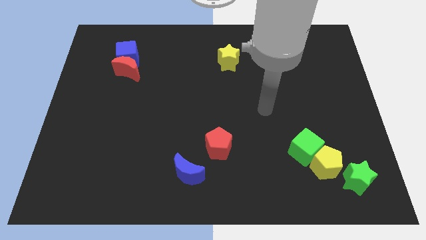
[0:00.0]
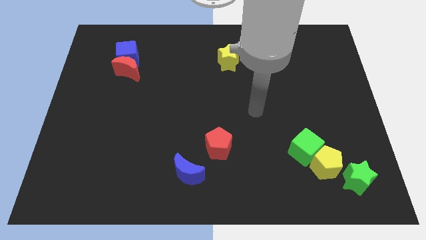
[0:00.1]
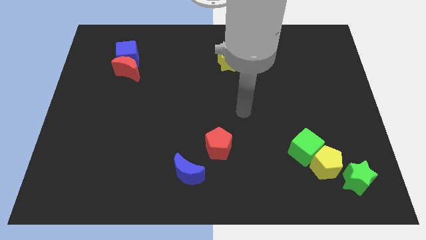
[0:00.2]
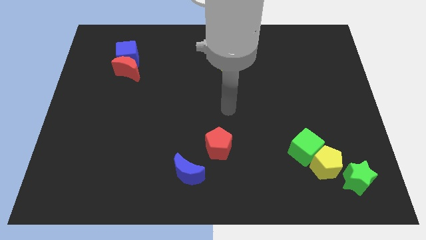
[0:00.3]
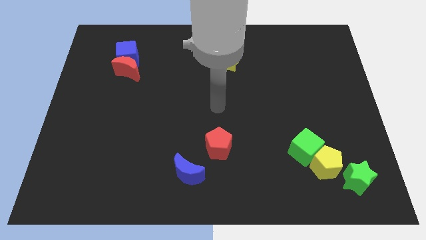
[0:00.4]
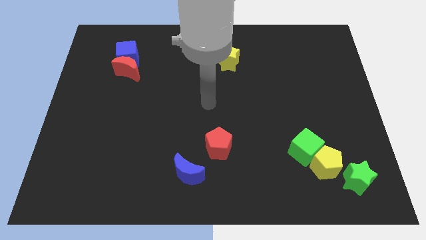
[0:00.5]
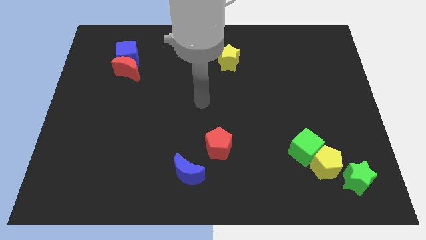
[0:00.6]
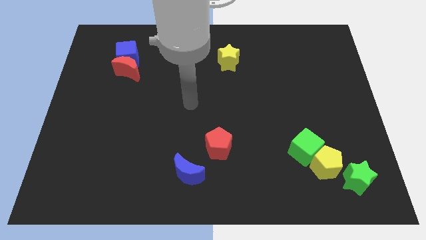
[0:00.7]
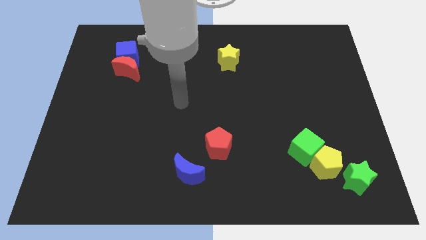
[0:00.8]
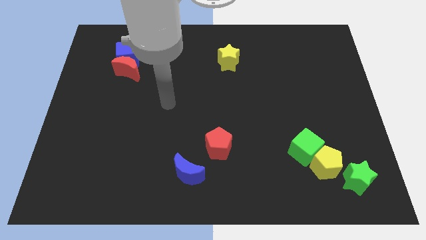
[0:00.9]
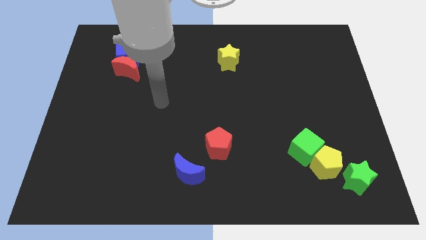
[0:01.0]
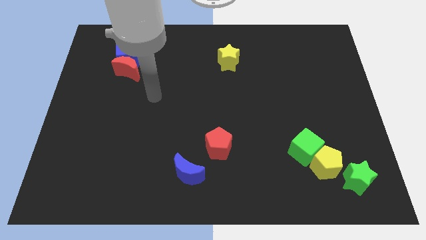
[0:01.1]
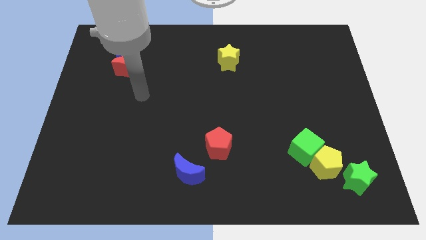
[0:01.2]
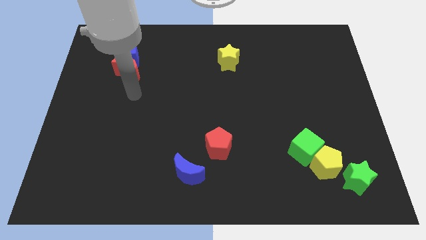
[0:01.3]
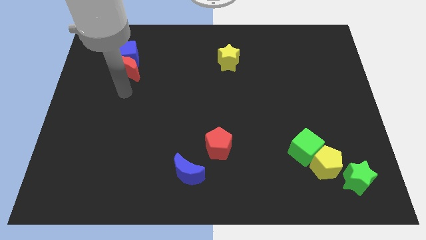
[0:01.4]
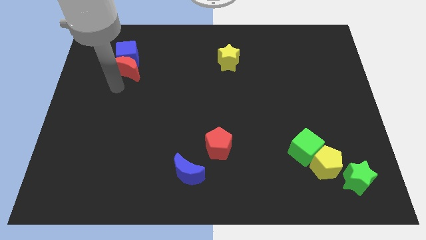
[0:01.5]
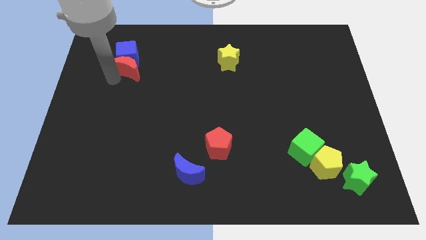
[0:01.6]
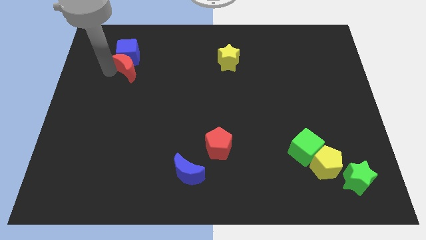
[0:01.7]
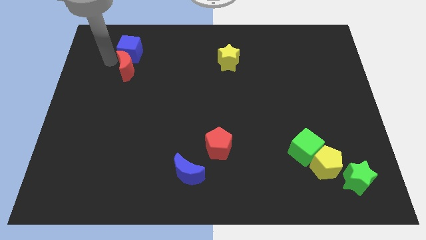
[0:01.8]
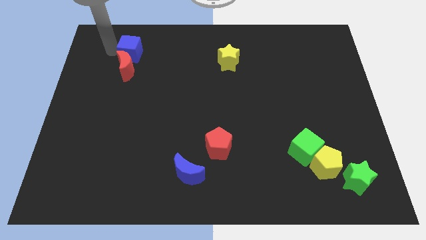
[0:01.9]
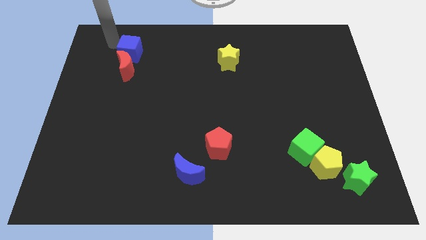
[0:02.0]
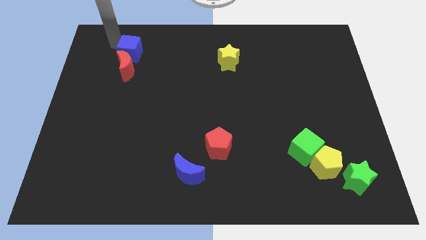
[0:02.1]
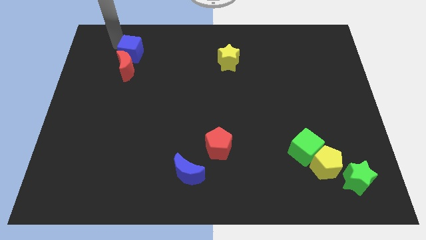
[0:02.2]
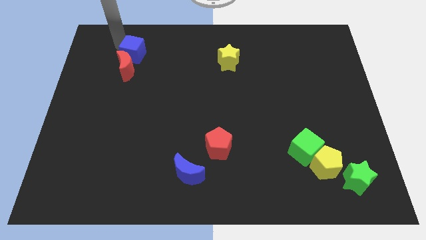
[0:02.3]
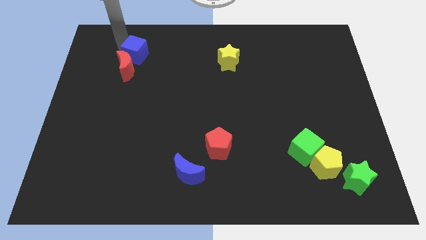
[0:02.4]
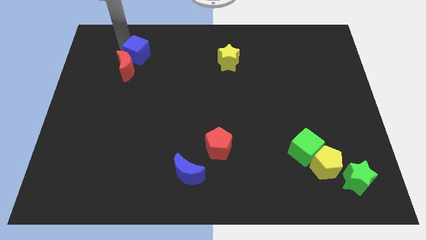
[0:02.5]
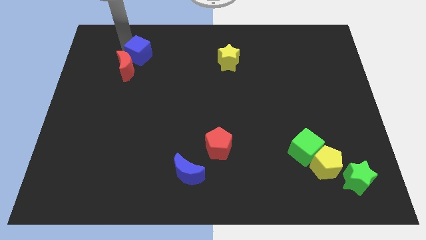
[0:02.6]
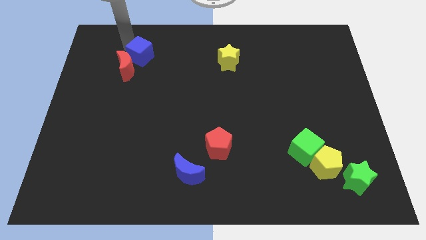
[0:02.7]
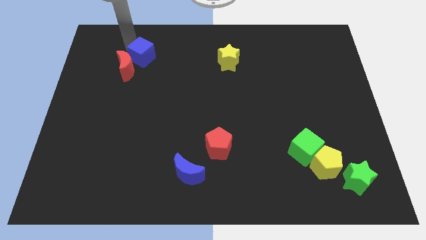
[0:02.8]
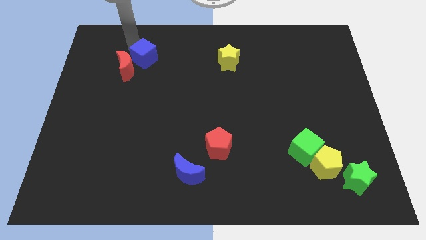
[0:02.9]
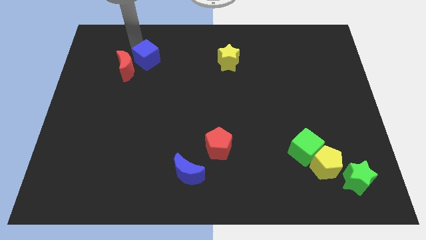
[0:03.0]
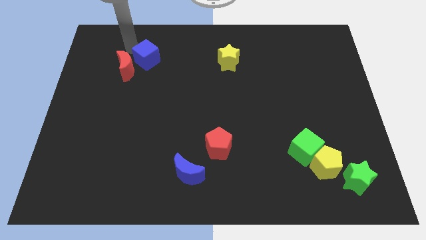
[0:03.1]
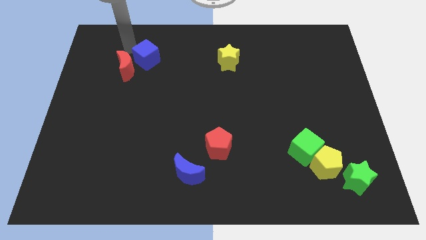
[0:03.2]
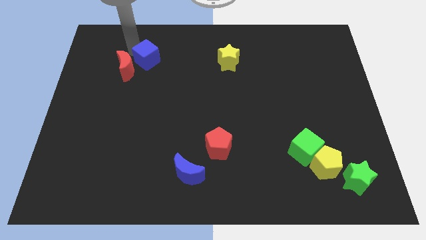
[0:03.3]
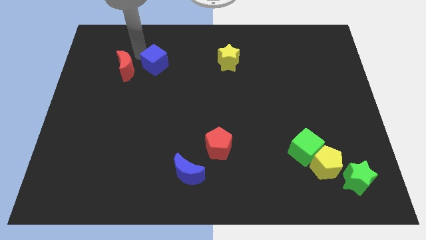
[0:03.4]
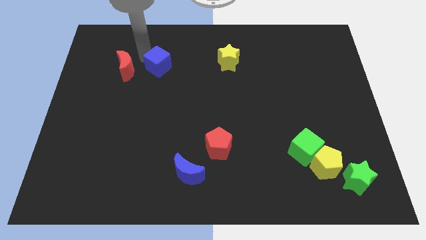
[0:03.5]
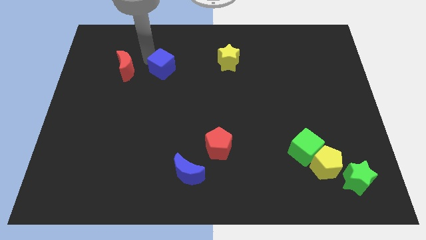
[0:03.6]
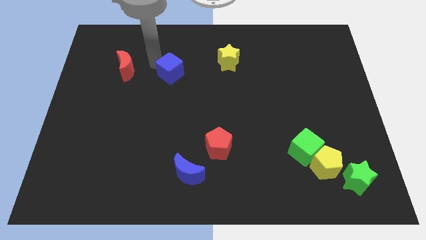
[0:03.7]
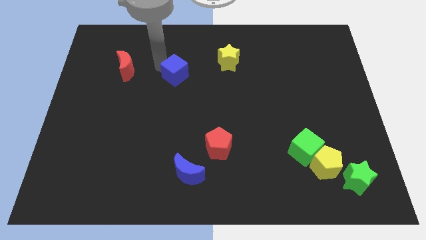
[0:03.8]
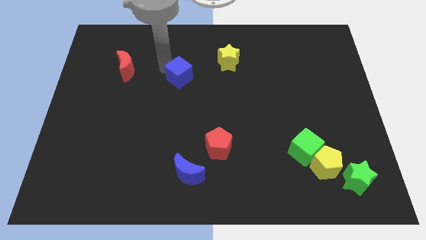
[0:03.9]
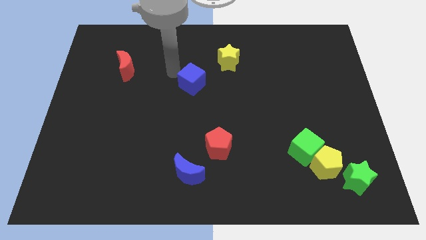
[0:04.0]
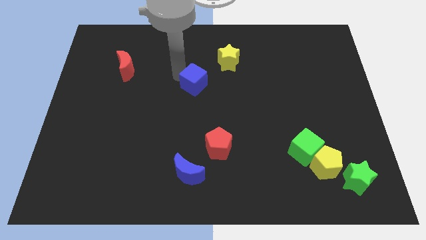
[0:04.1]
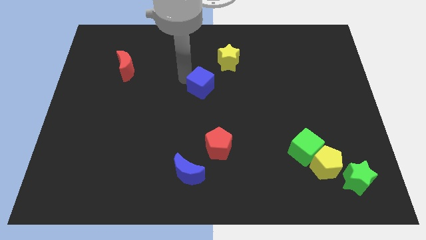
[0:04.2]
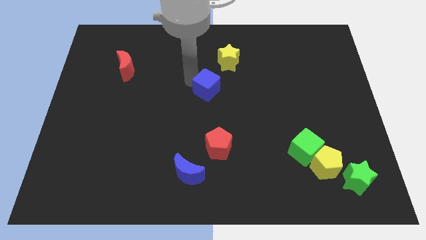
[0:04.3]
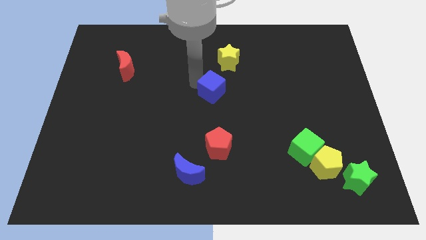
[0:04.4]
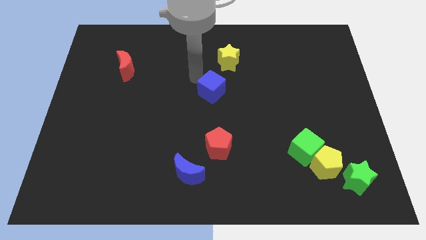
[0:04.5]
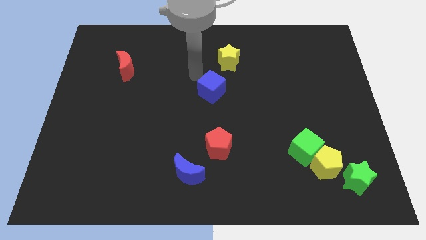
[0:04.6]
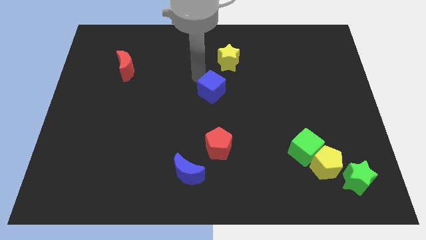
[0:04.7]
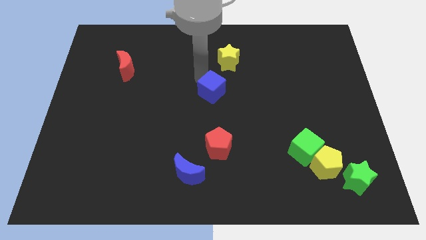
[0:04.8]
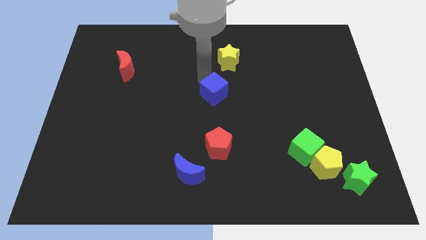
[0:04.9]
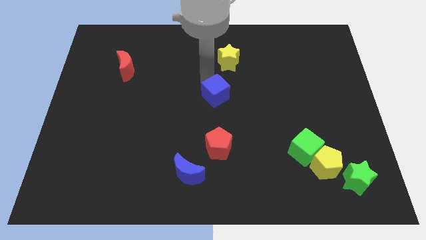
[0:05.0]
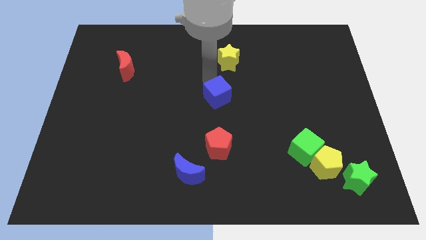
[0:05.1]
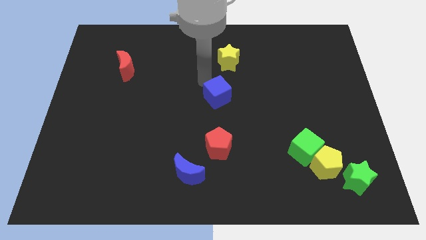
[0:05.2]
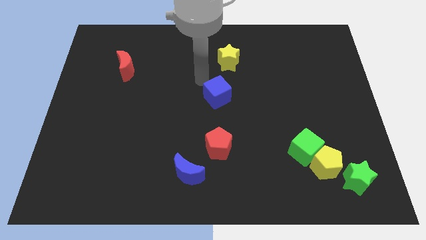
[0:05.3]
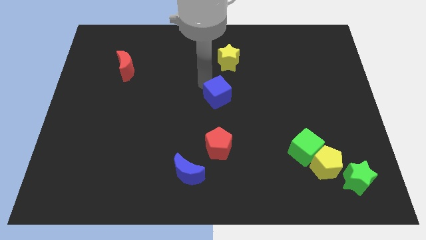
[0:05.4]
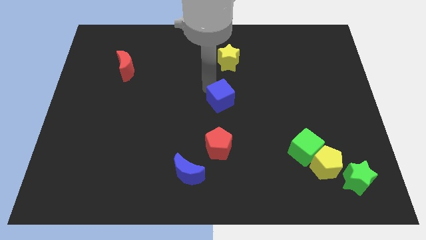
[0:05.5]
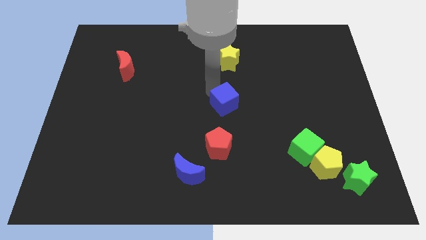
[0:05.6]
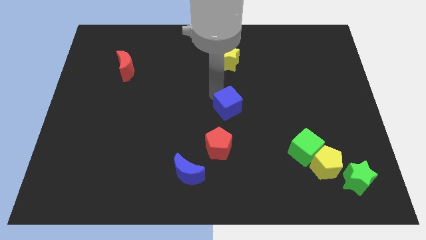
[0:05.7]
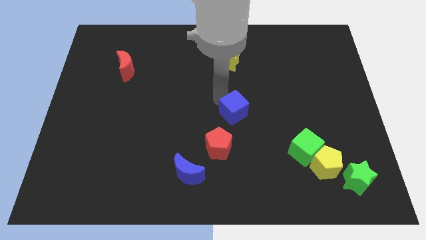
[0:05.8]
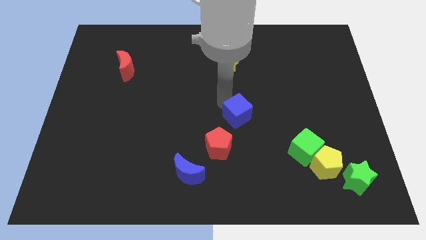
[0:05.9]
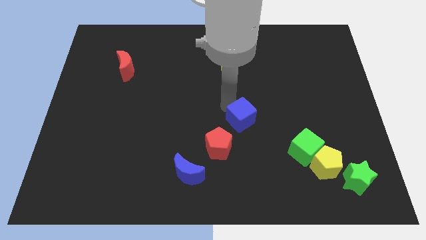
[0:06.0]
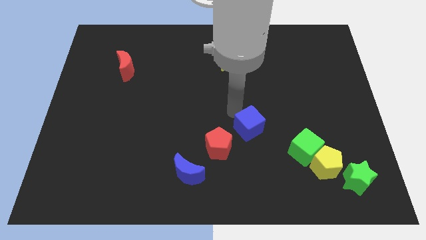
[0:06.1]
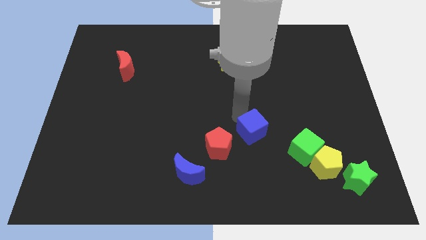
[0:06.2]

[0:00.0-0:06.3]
put the blue cube right of the red pentagon
